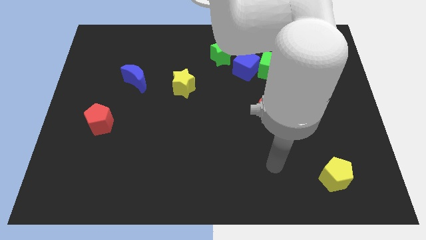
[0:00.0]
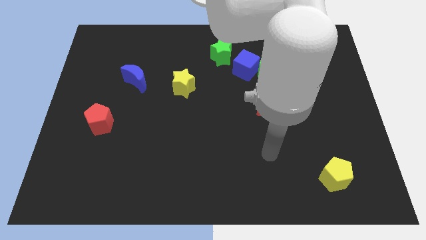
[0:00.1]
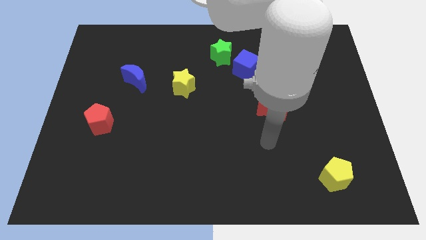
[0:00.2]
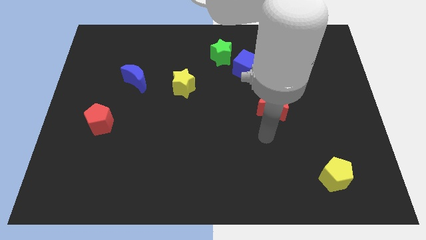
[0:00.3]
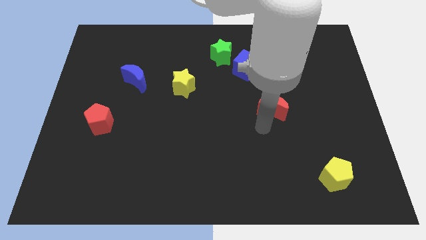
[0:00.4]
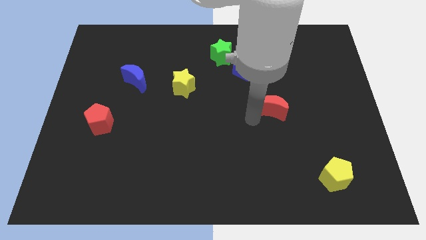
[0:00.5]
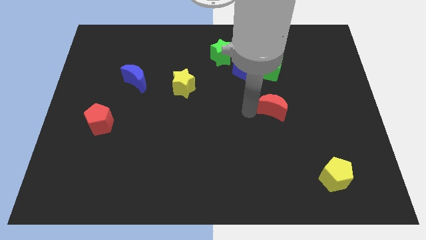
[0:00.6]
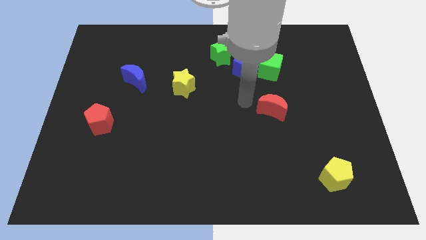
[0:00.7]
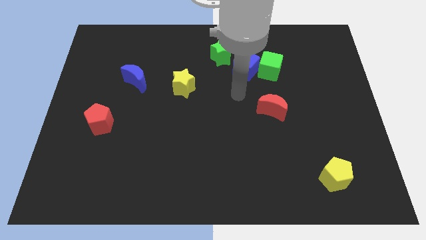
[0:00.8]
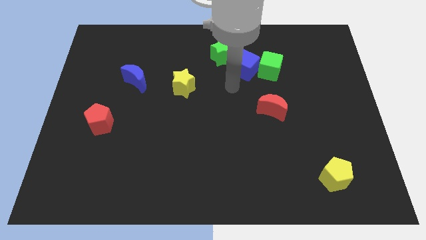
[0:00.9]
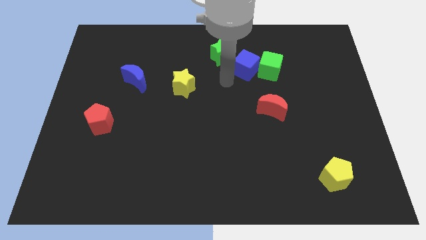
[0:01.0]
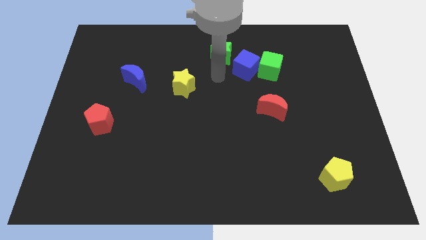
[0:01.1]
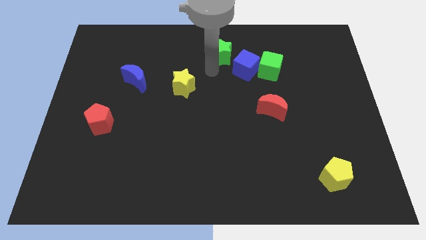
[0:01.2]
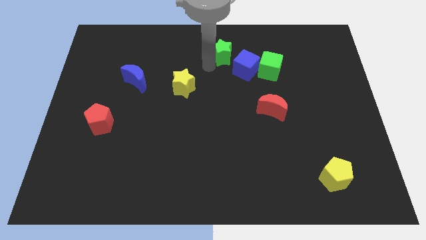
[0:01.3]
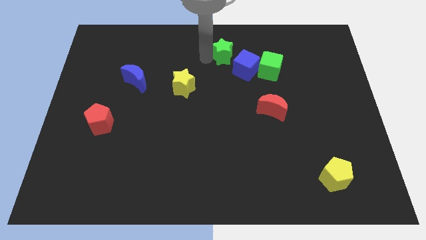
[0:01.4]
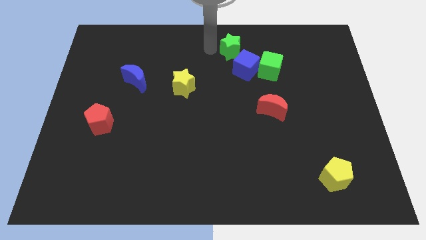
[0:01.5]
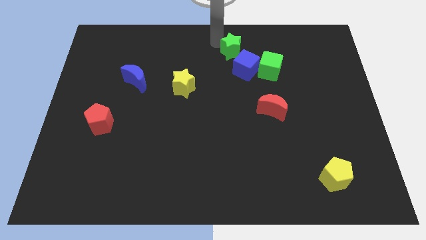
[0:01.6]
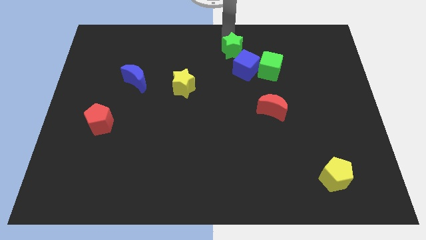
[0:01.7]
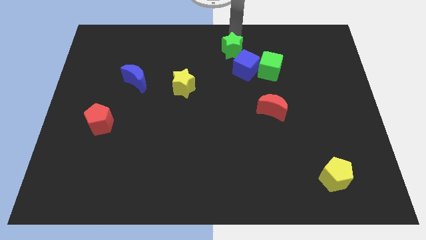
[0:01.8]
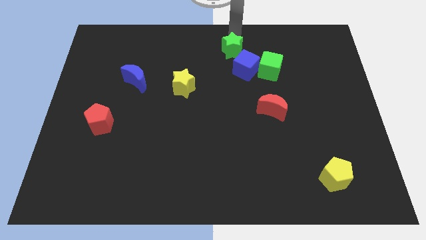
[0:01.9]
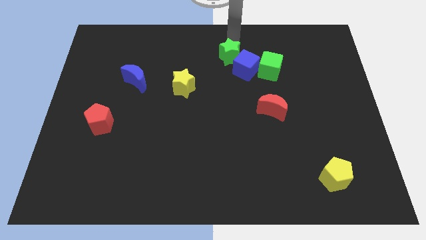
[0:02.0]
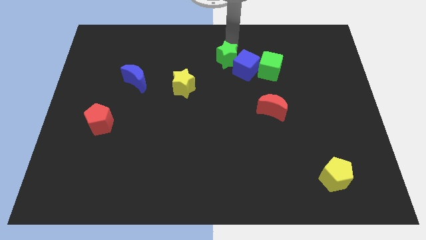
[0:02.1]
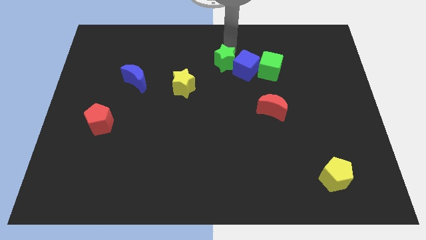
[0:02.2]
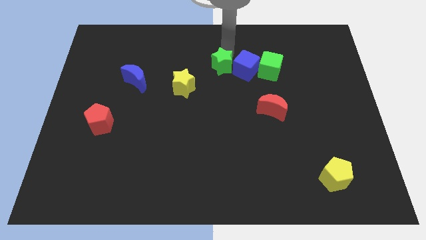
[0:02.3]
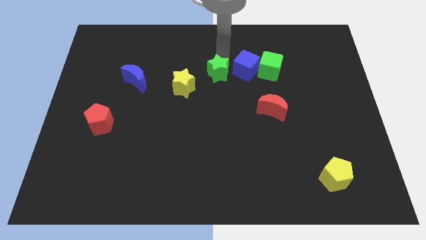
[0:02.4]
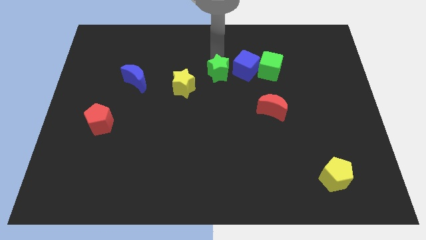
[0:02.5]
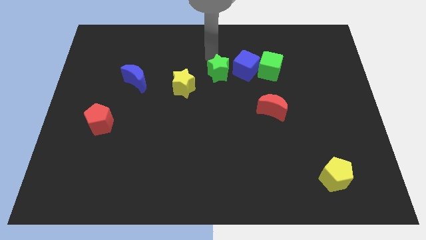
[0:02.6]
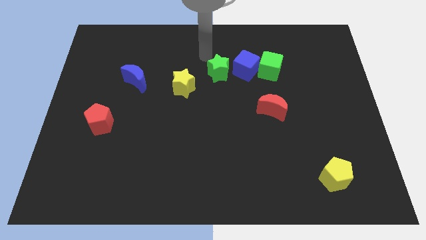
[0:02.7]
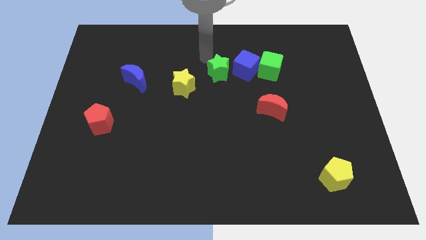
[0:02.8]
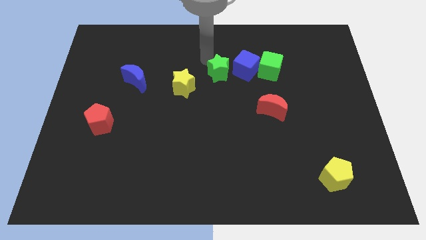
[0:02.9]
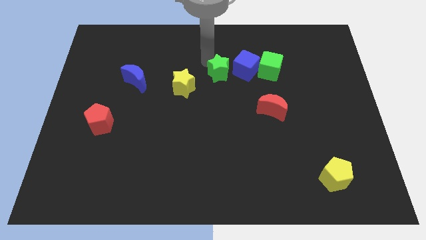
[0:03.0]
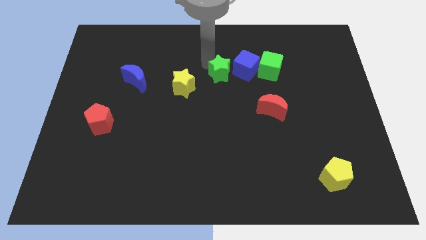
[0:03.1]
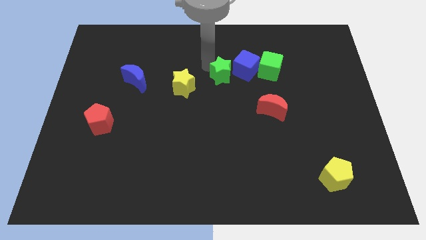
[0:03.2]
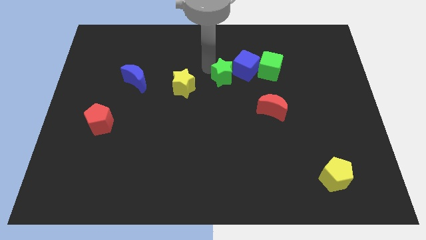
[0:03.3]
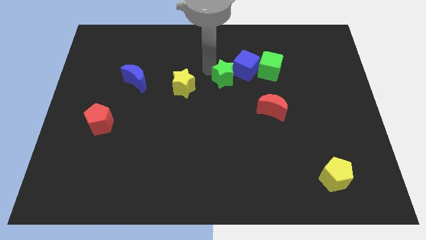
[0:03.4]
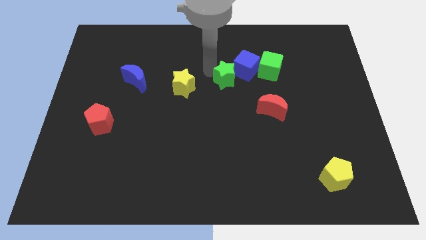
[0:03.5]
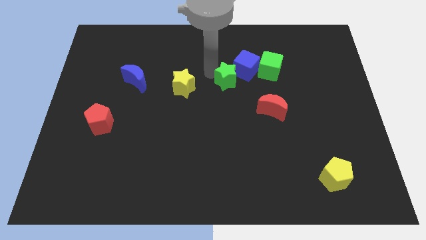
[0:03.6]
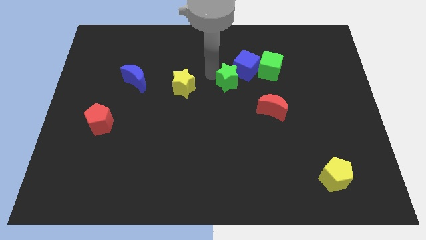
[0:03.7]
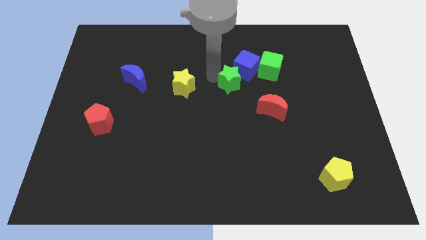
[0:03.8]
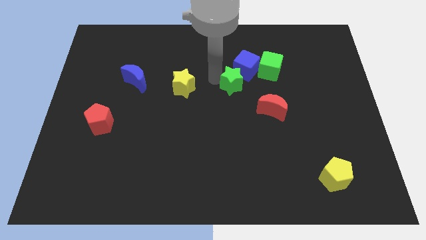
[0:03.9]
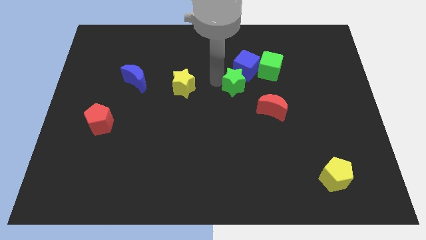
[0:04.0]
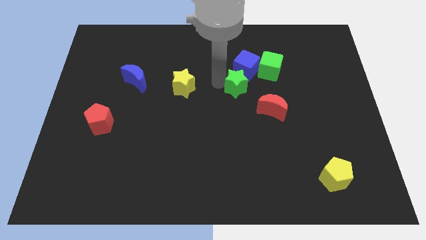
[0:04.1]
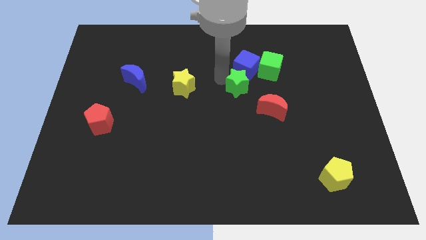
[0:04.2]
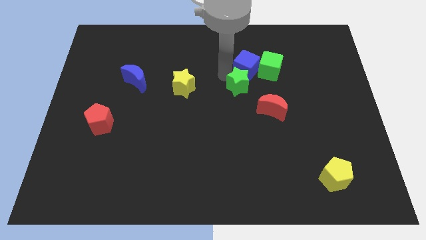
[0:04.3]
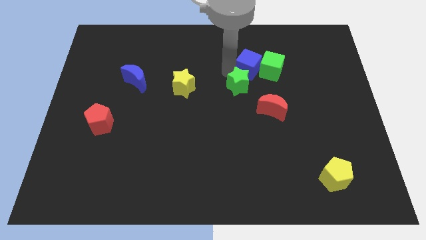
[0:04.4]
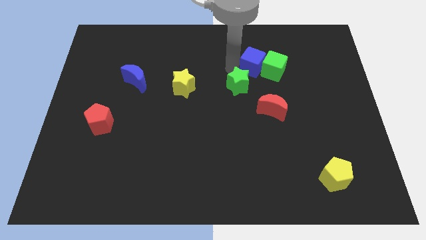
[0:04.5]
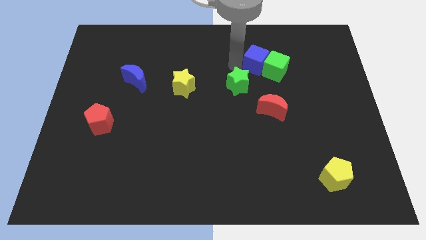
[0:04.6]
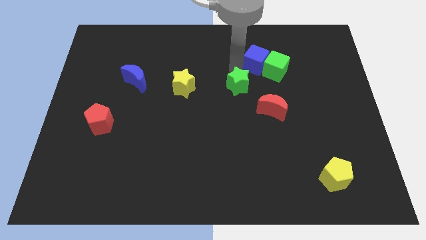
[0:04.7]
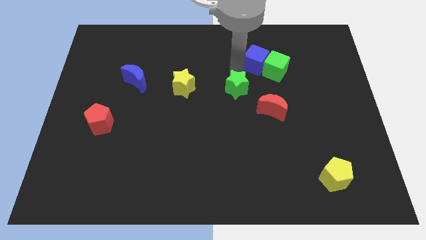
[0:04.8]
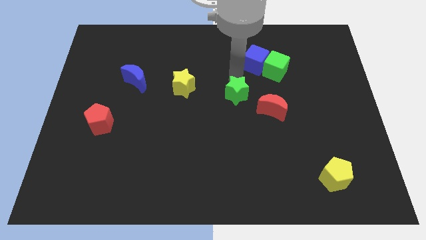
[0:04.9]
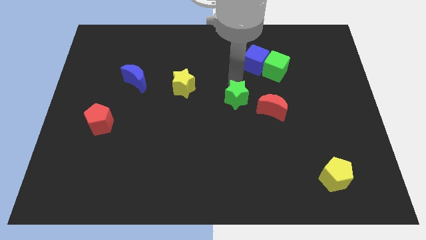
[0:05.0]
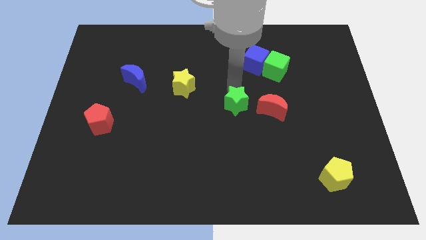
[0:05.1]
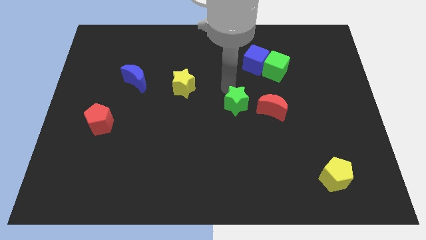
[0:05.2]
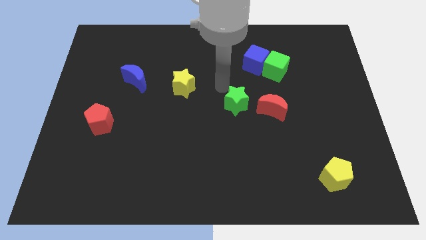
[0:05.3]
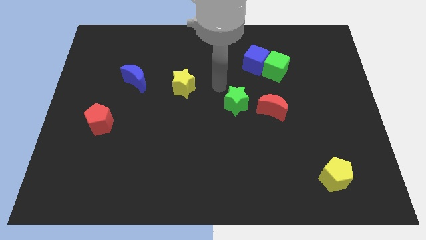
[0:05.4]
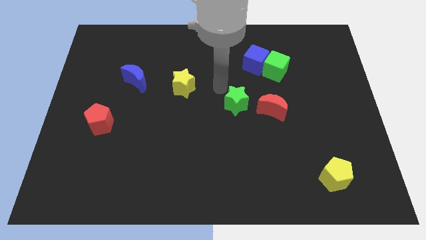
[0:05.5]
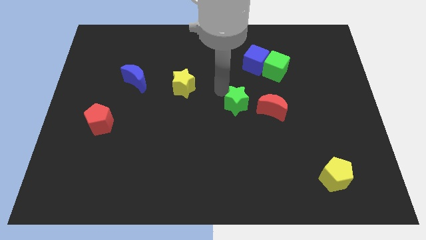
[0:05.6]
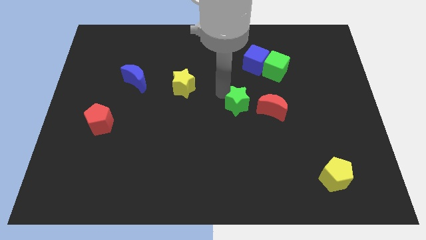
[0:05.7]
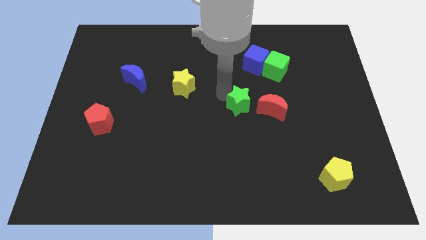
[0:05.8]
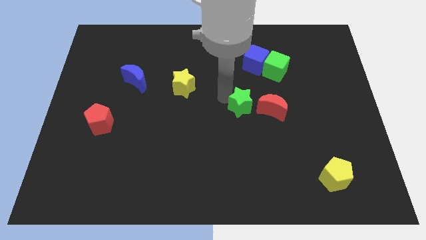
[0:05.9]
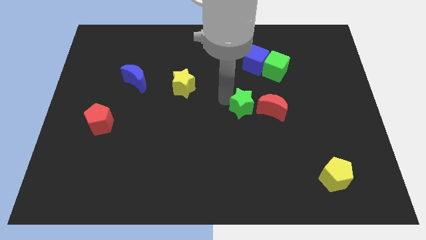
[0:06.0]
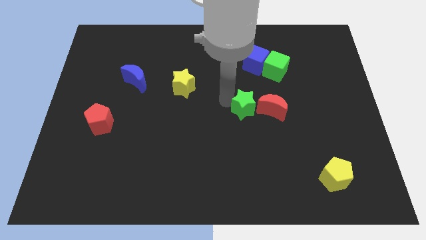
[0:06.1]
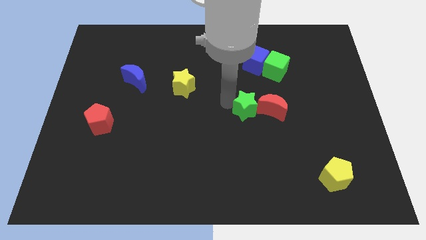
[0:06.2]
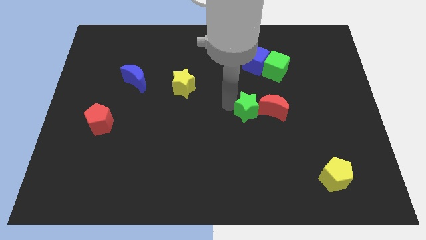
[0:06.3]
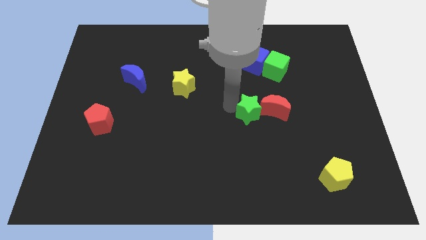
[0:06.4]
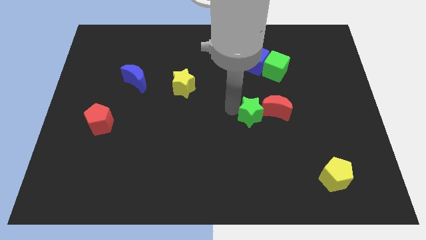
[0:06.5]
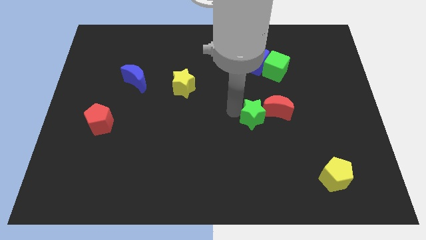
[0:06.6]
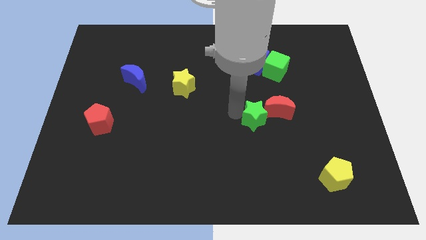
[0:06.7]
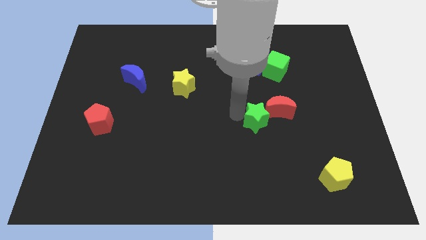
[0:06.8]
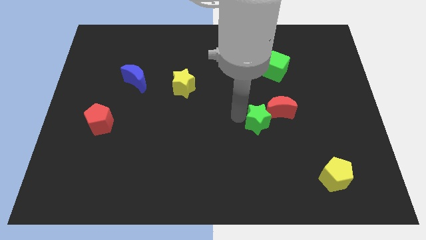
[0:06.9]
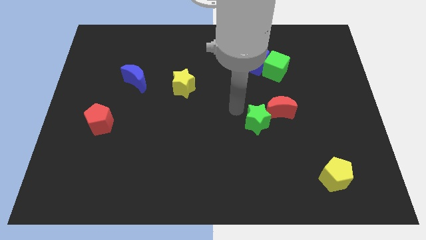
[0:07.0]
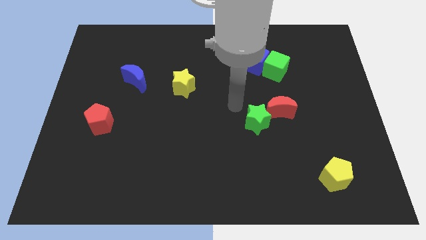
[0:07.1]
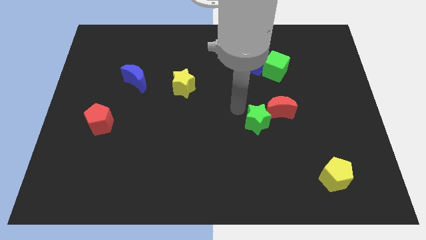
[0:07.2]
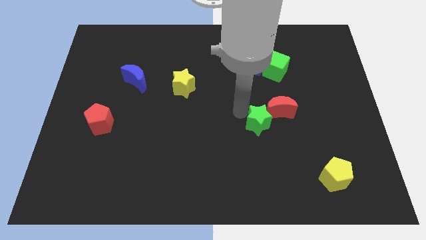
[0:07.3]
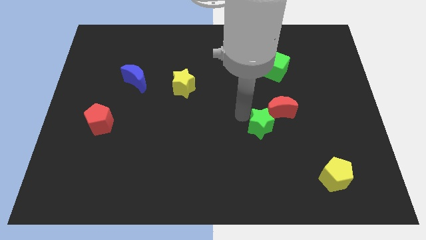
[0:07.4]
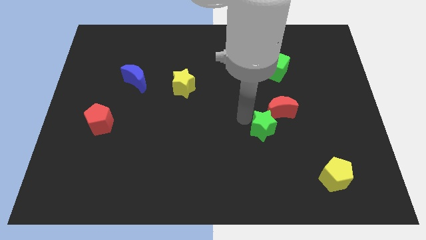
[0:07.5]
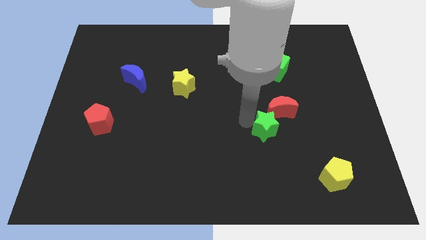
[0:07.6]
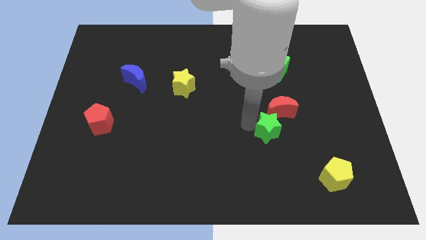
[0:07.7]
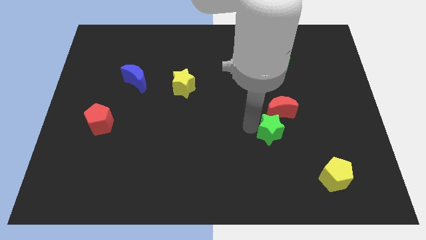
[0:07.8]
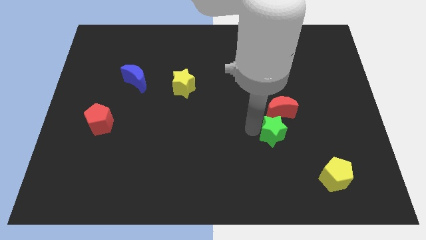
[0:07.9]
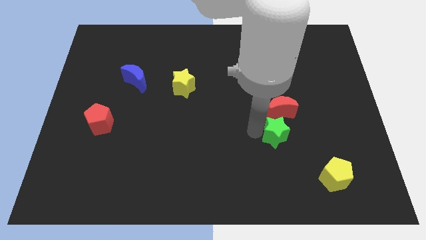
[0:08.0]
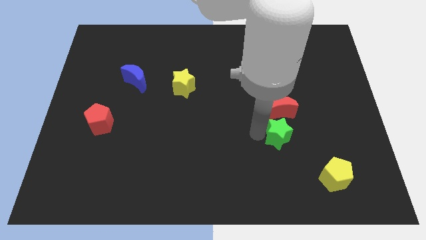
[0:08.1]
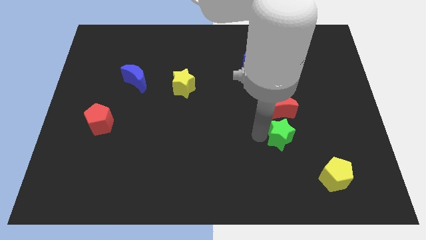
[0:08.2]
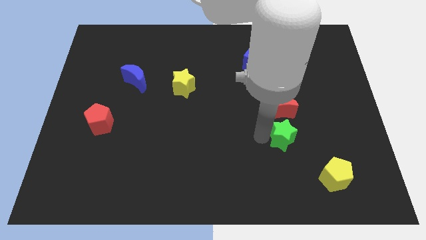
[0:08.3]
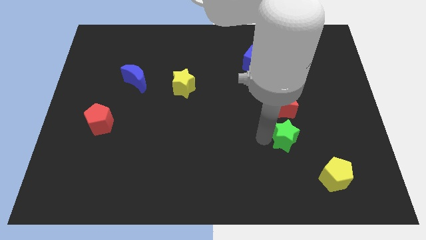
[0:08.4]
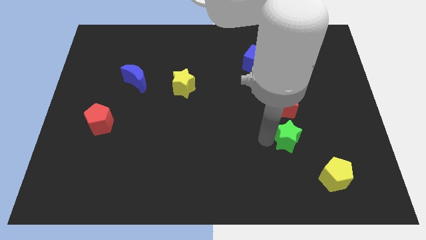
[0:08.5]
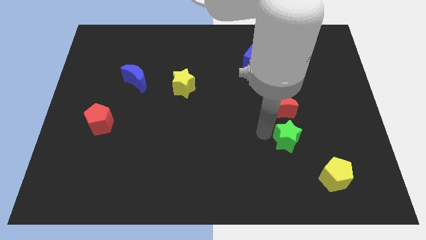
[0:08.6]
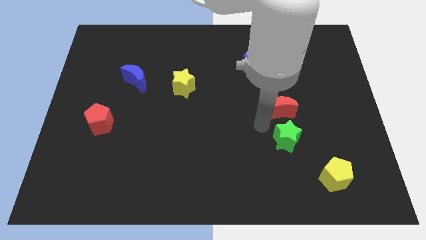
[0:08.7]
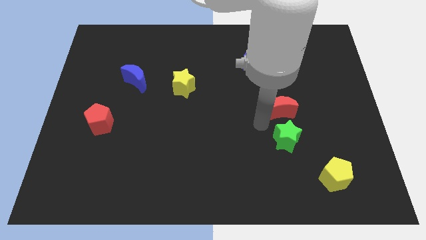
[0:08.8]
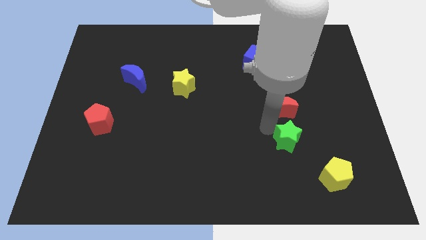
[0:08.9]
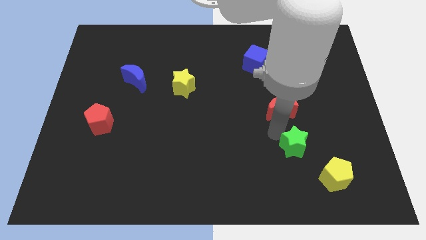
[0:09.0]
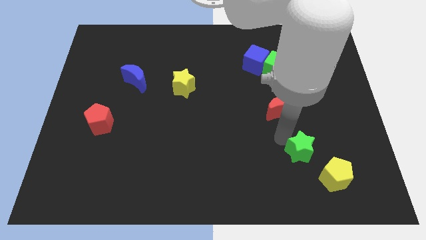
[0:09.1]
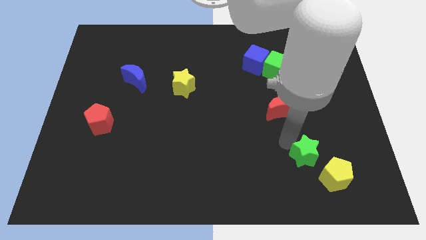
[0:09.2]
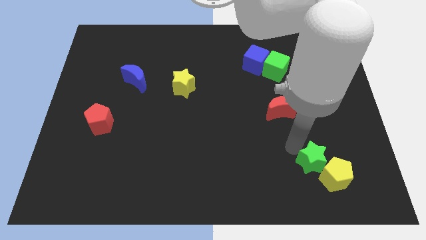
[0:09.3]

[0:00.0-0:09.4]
put the green star close to the yellow pentagon
